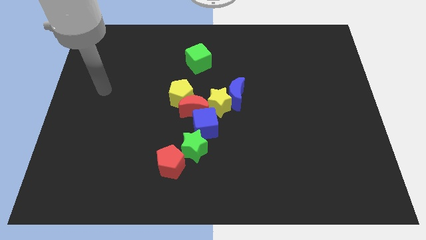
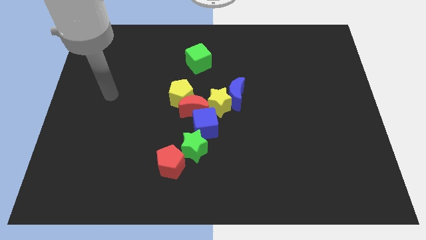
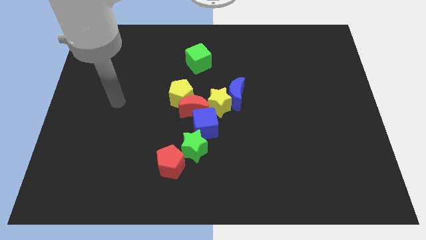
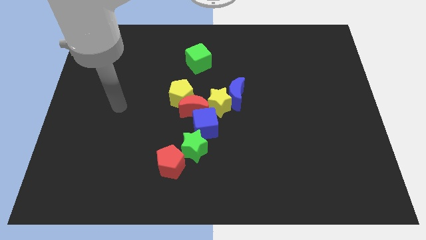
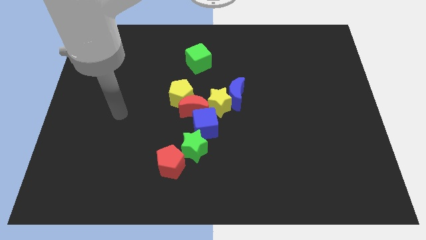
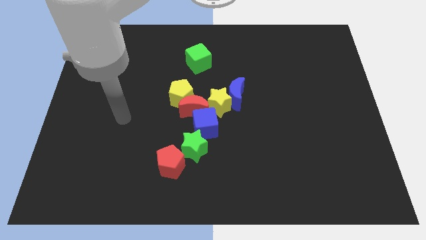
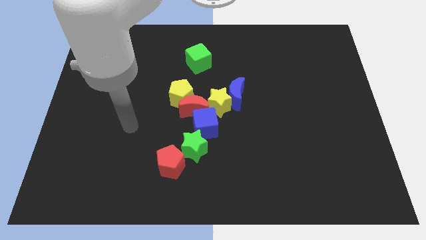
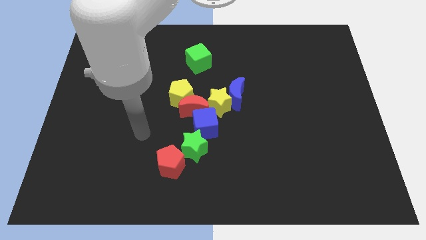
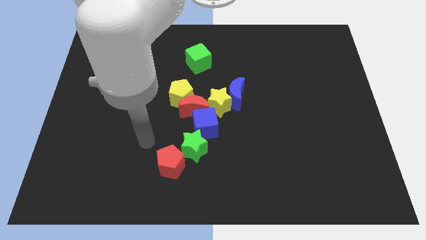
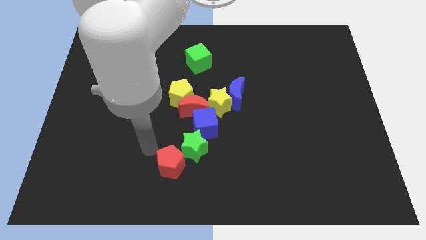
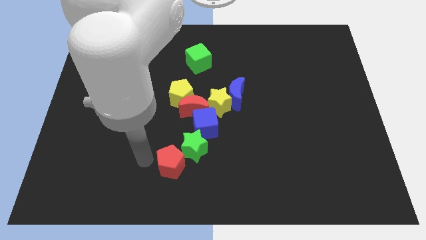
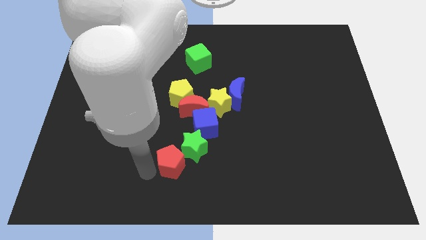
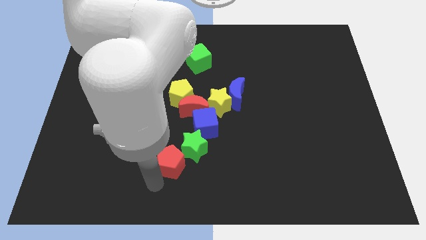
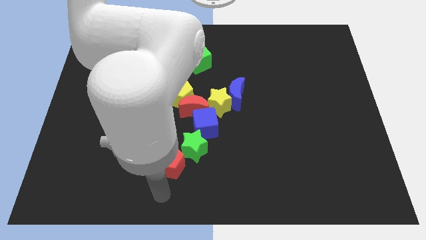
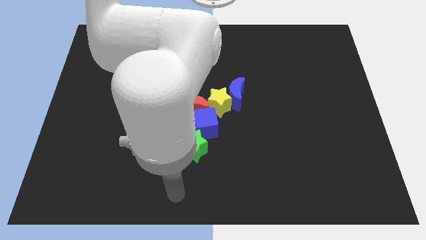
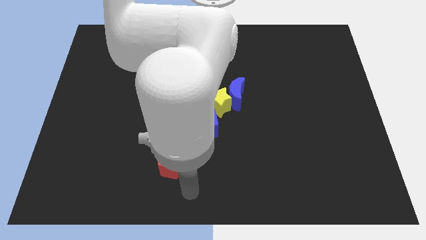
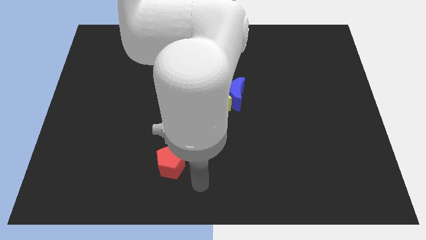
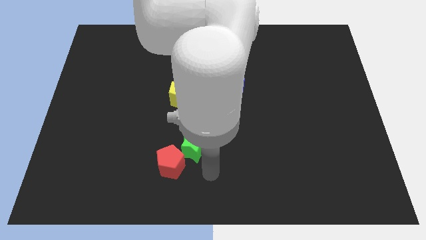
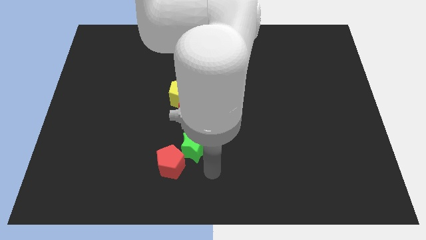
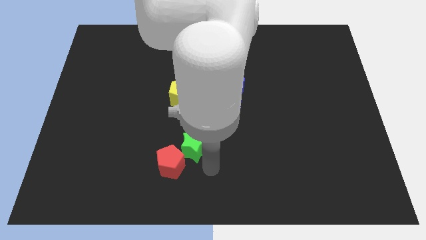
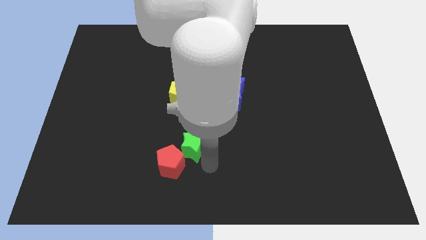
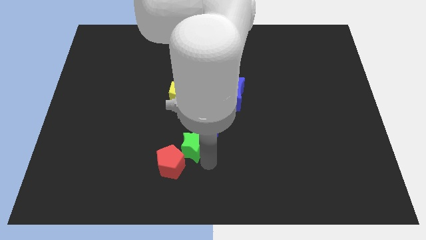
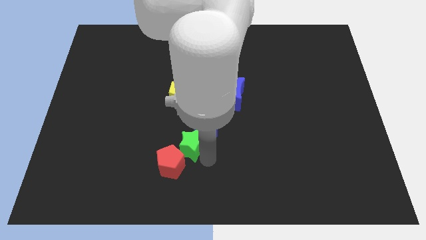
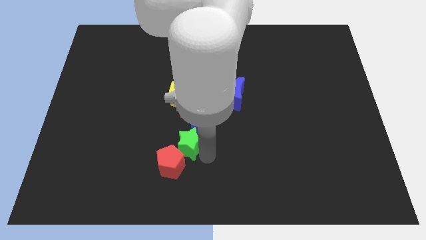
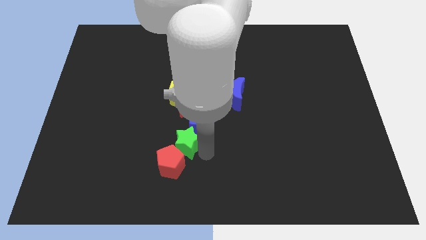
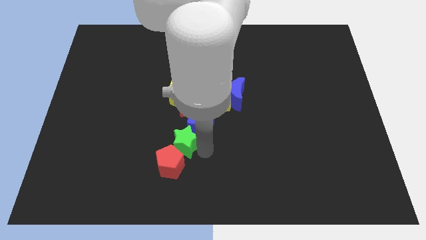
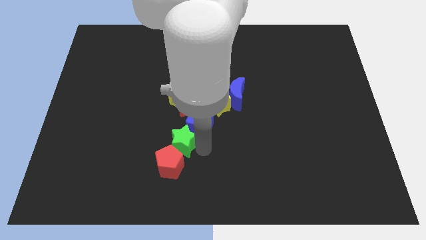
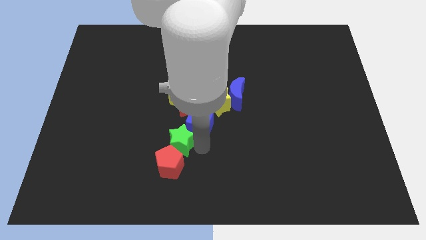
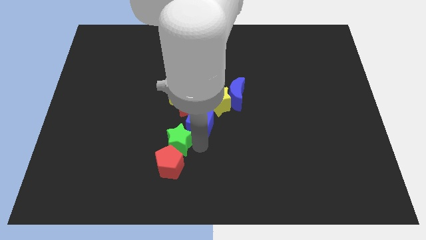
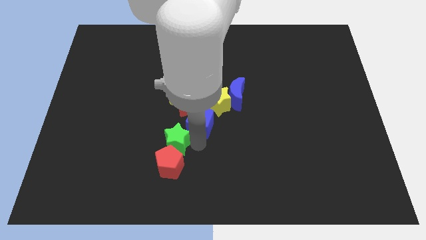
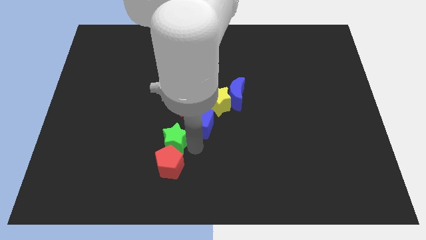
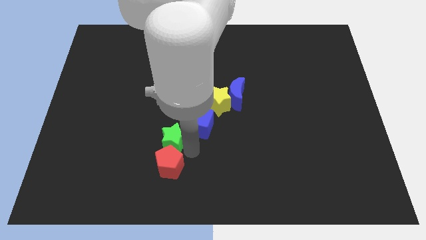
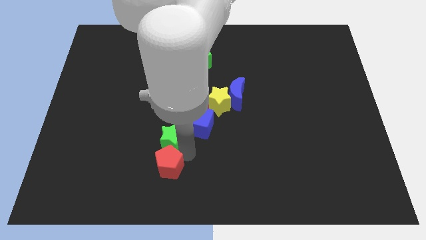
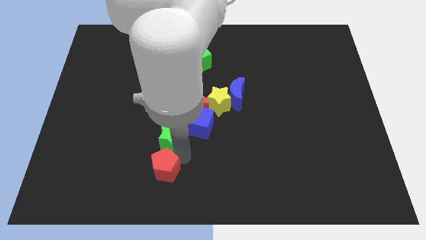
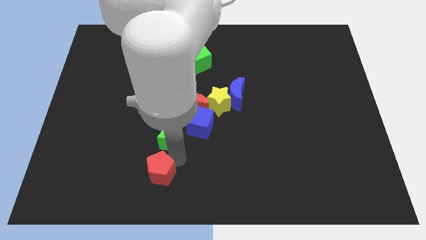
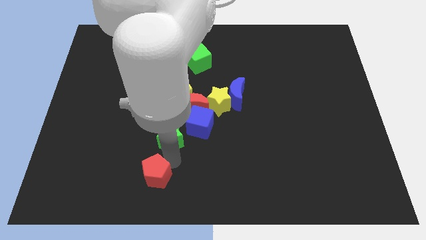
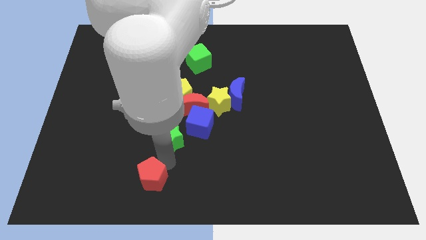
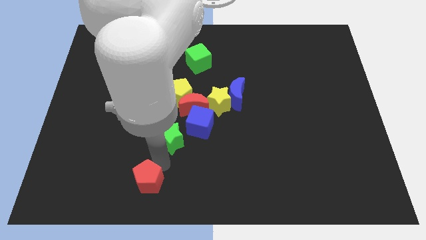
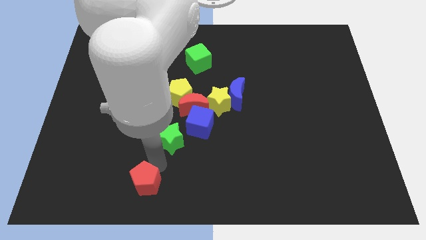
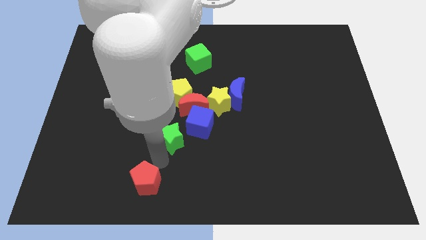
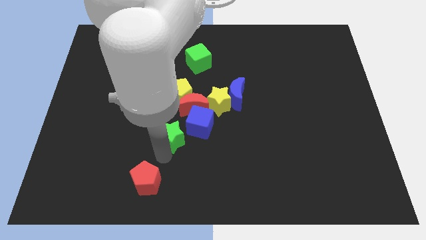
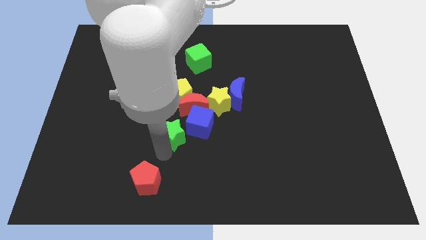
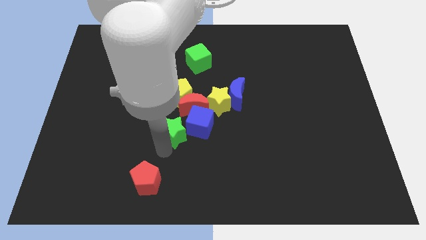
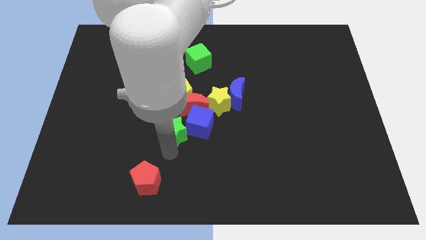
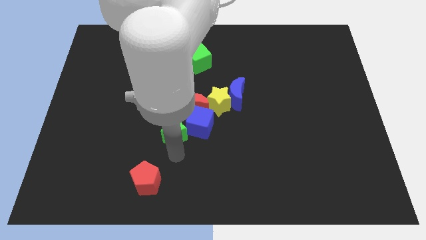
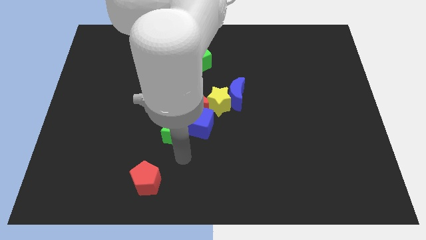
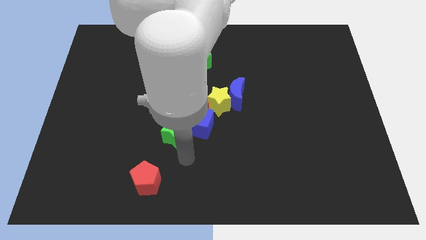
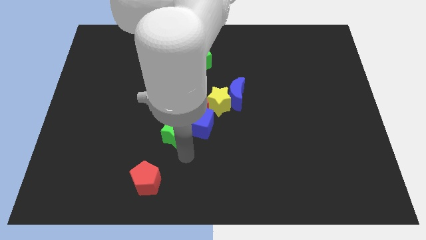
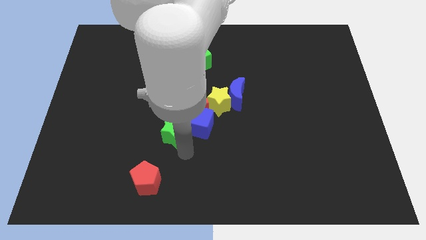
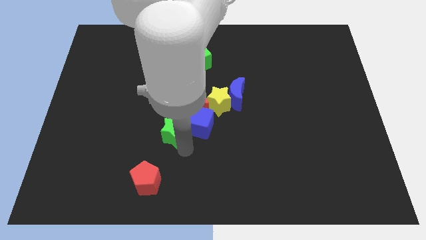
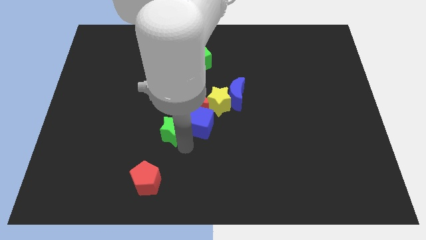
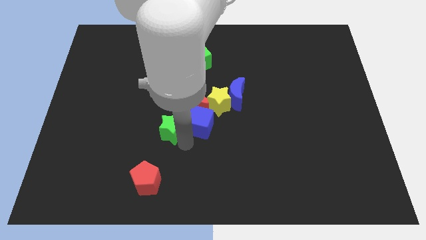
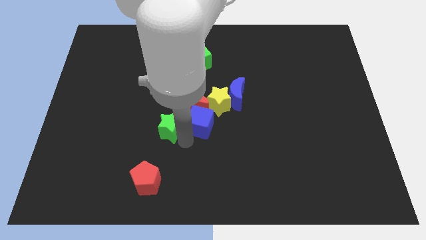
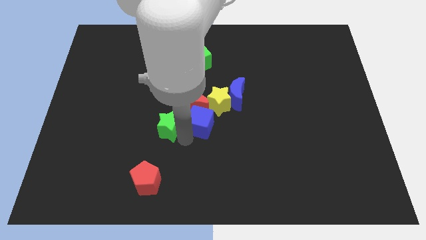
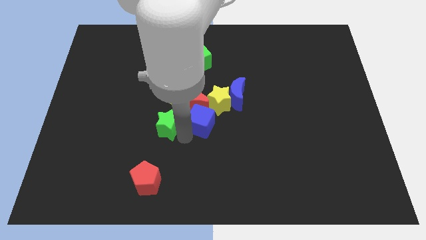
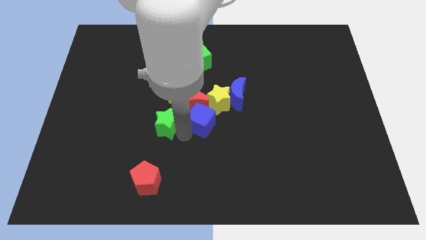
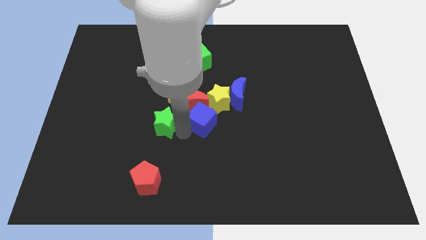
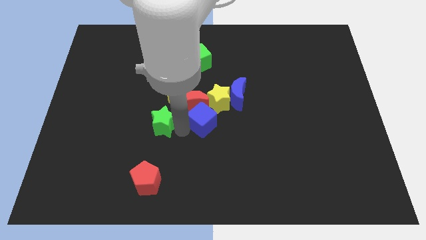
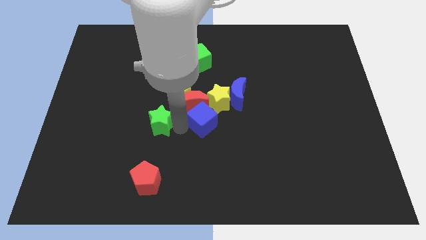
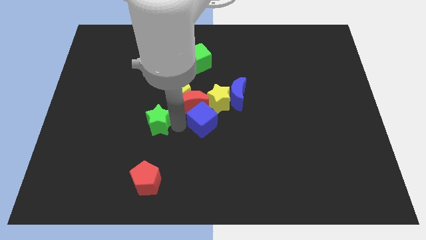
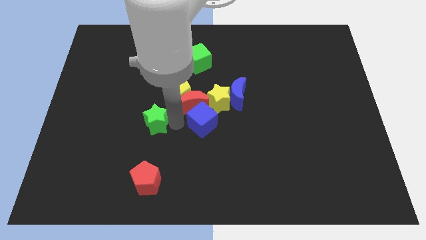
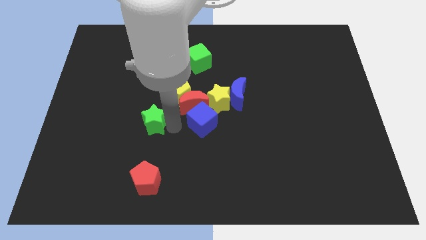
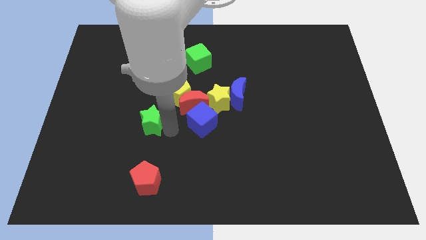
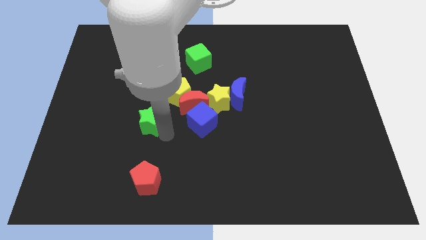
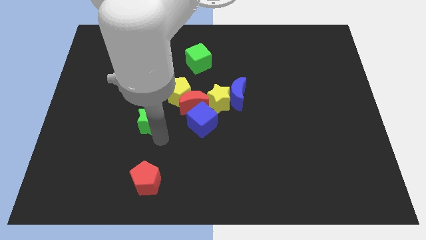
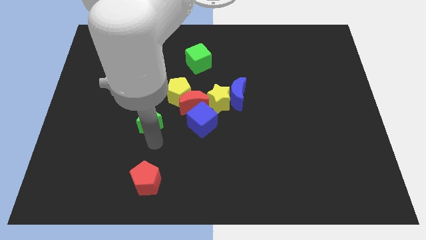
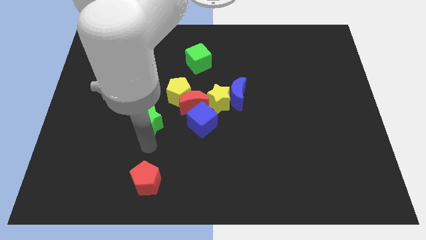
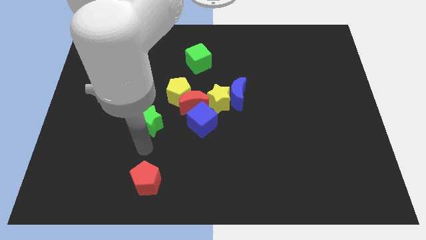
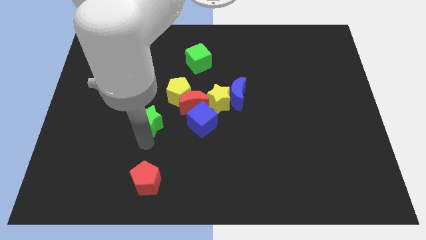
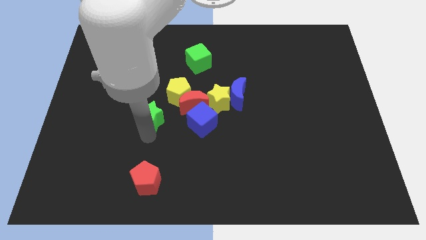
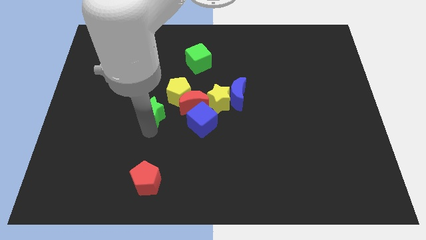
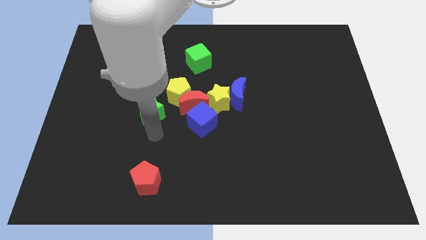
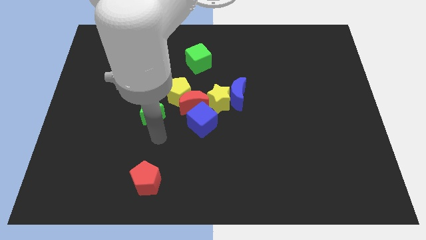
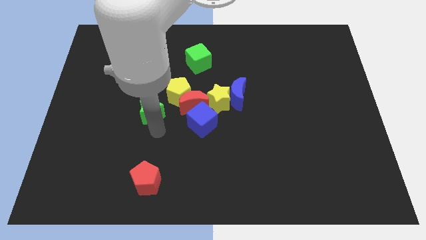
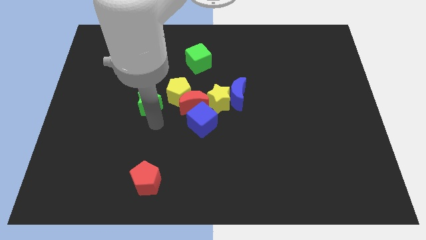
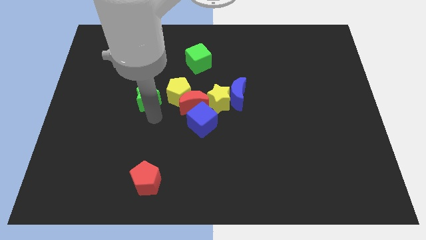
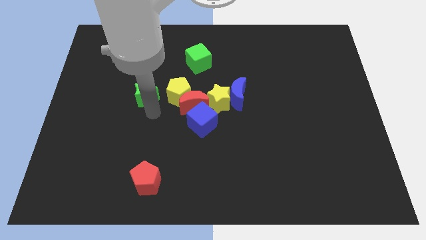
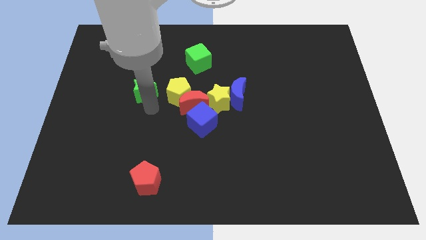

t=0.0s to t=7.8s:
slide the green star upwards and to the left diagonally

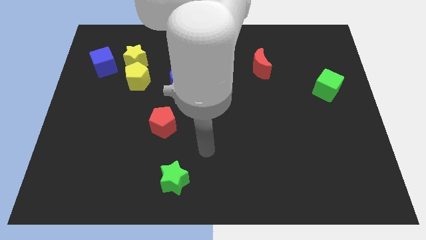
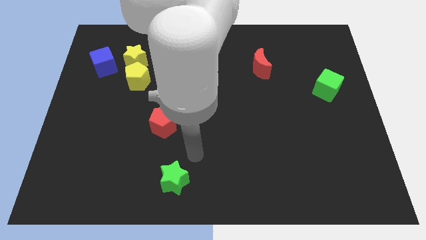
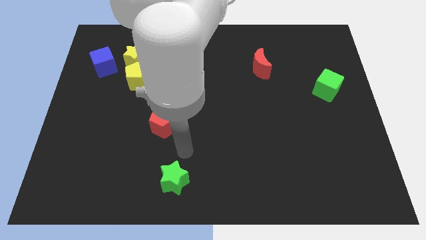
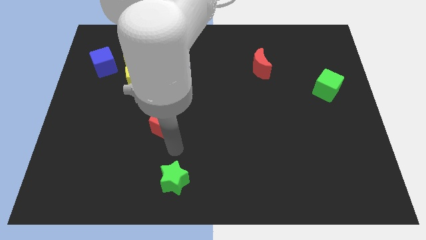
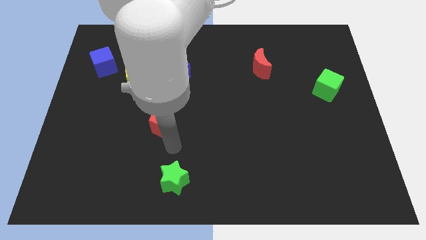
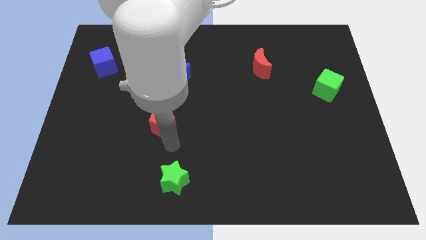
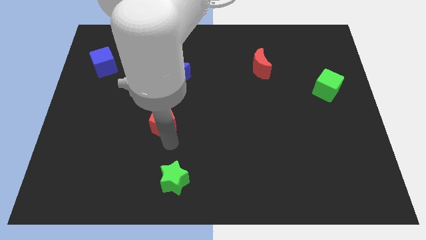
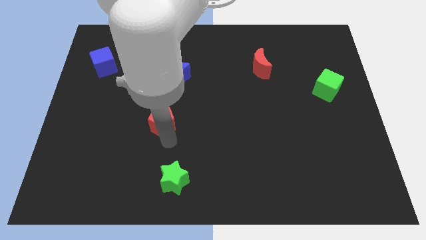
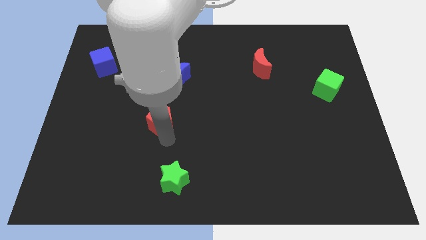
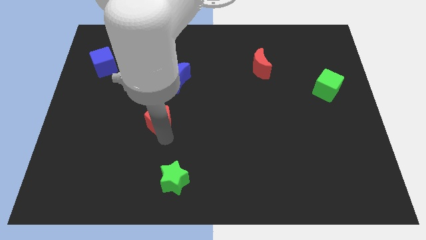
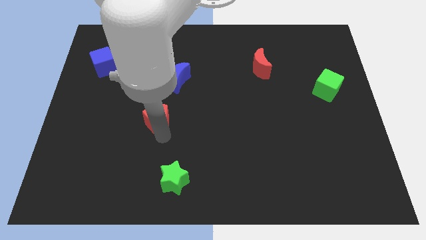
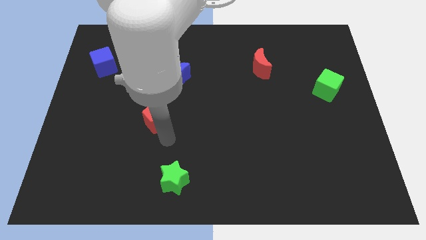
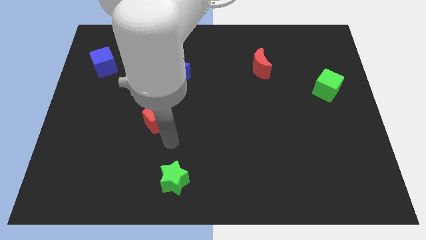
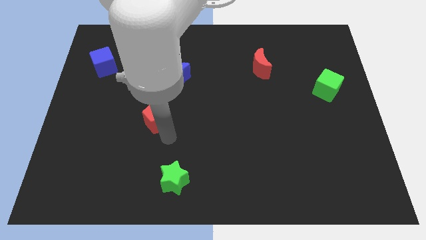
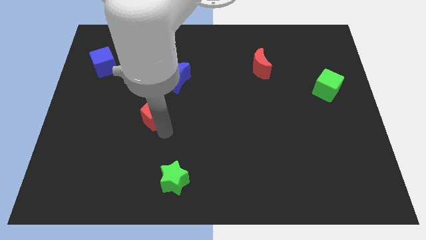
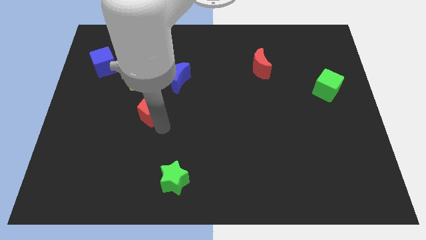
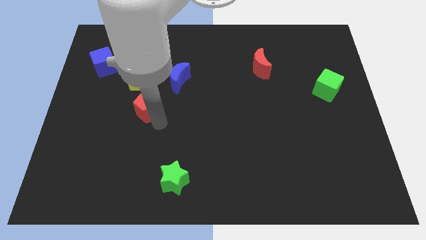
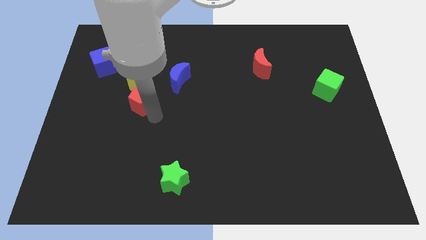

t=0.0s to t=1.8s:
push the red pentagon a bit up and to the left
